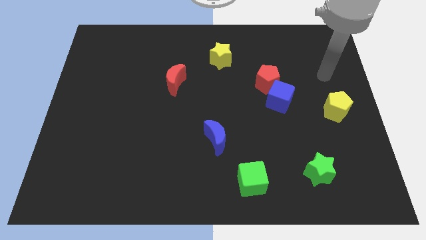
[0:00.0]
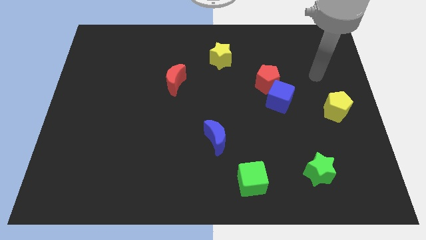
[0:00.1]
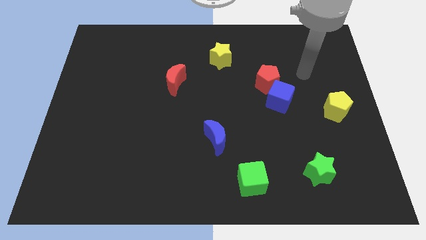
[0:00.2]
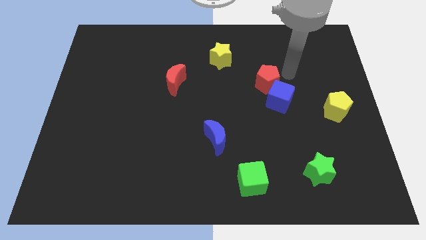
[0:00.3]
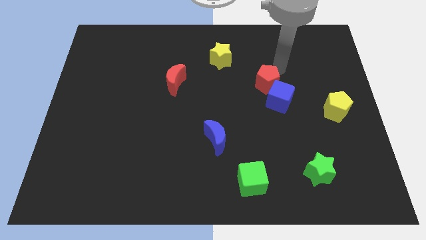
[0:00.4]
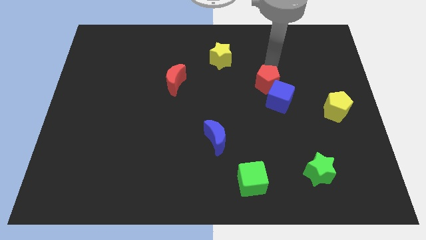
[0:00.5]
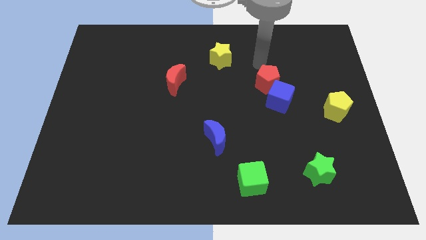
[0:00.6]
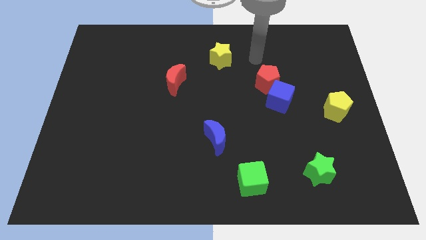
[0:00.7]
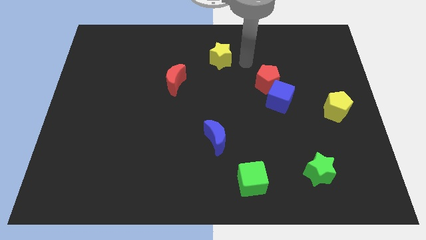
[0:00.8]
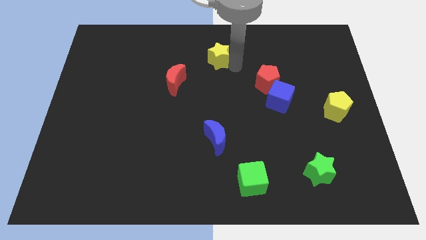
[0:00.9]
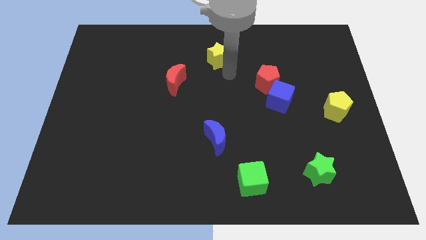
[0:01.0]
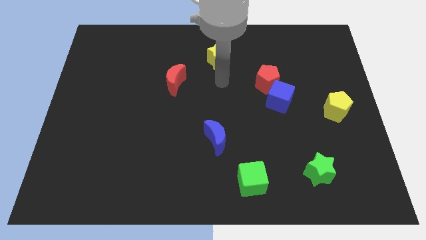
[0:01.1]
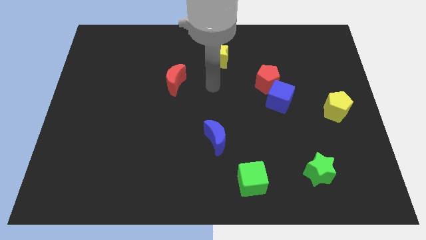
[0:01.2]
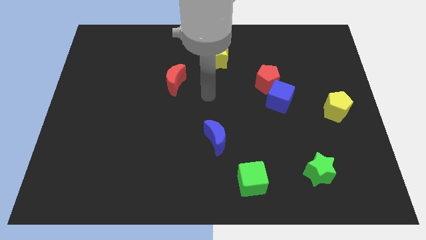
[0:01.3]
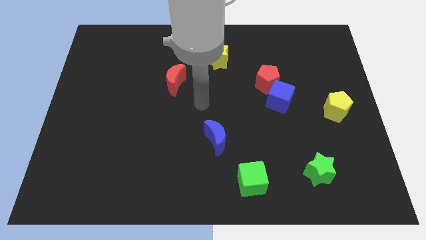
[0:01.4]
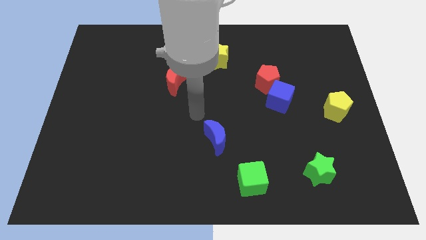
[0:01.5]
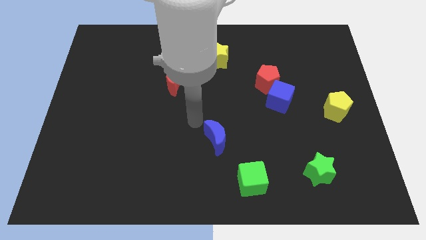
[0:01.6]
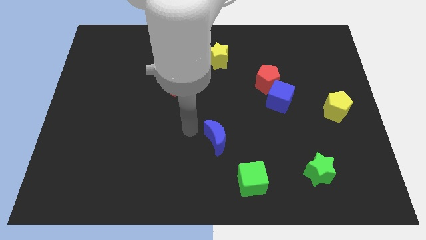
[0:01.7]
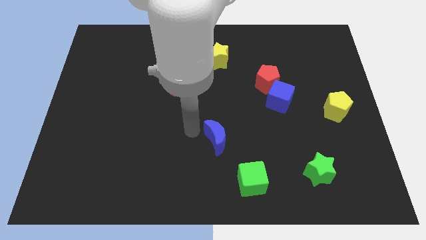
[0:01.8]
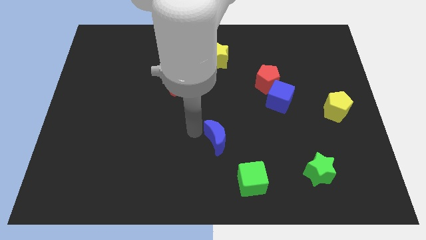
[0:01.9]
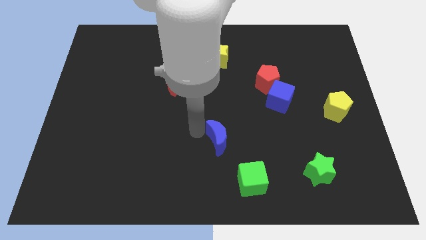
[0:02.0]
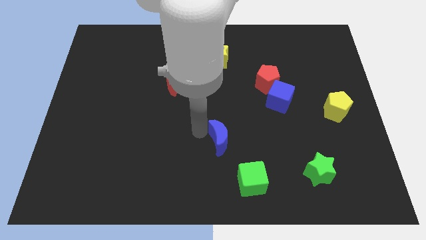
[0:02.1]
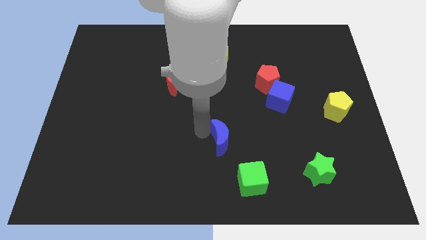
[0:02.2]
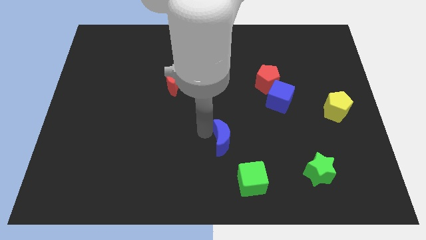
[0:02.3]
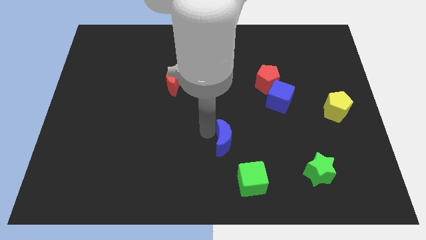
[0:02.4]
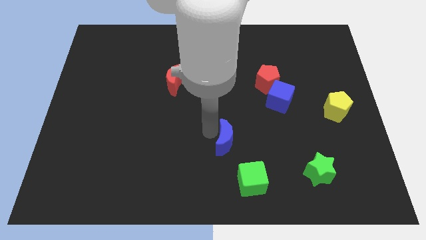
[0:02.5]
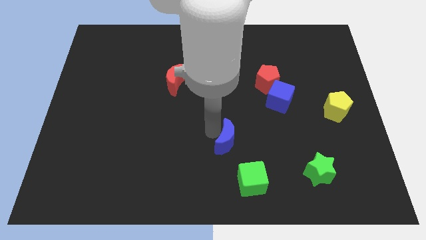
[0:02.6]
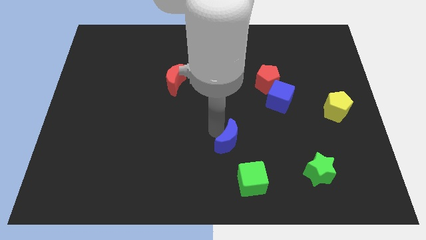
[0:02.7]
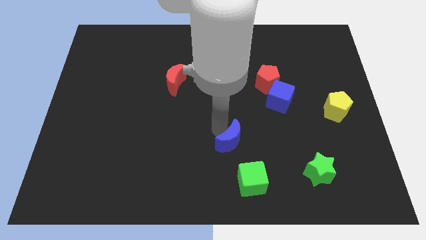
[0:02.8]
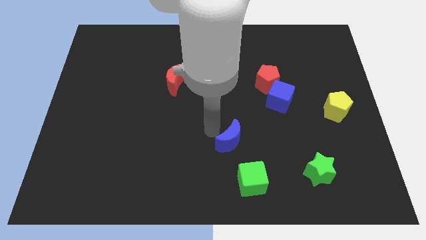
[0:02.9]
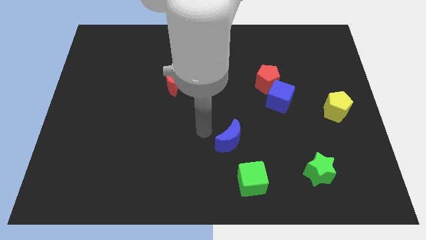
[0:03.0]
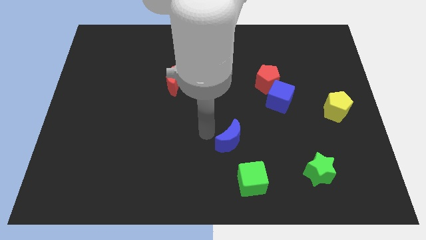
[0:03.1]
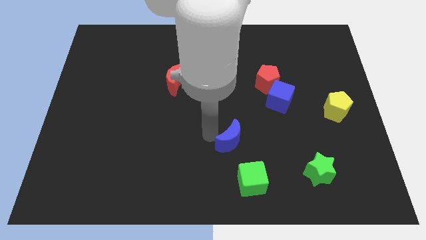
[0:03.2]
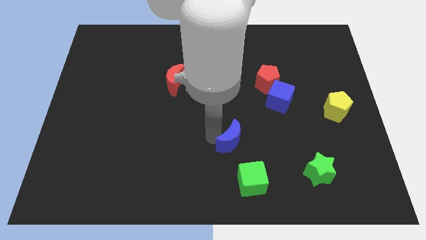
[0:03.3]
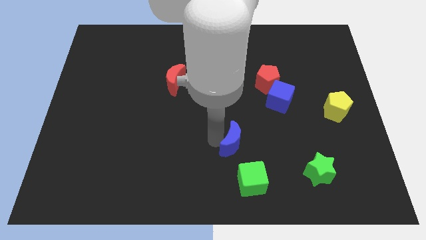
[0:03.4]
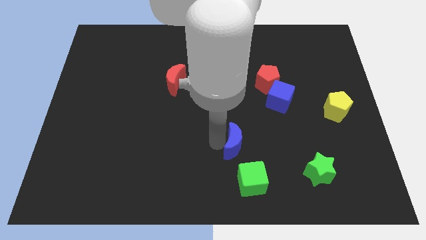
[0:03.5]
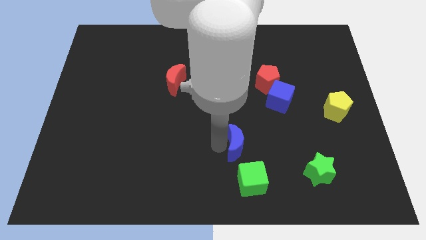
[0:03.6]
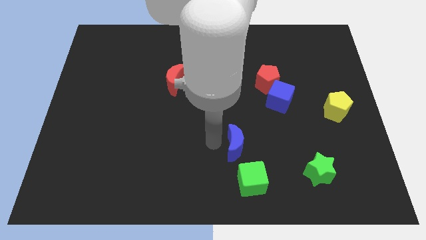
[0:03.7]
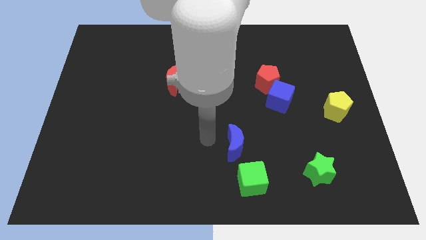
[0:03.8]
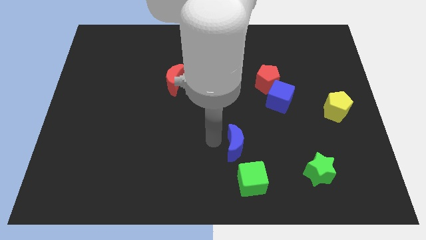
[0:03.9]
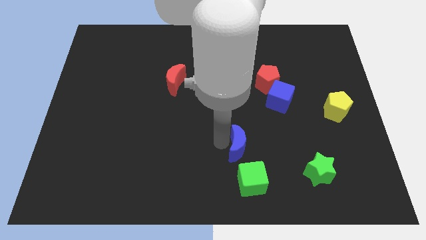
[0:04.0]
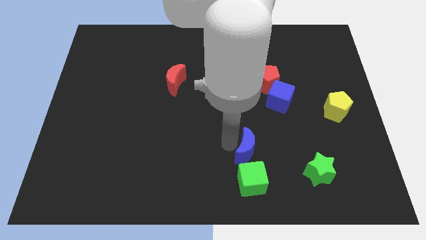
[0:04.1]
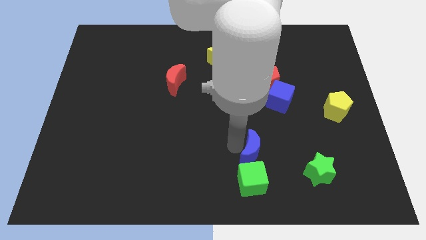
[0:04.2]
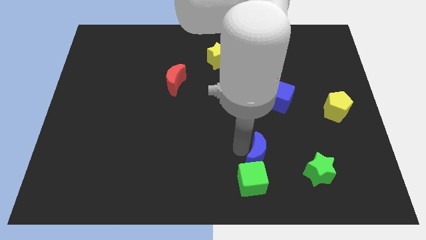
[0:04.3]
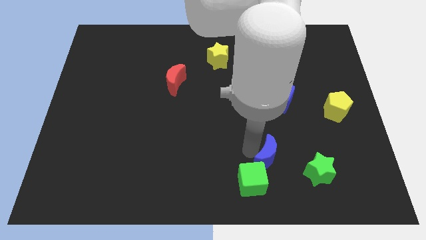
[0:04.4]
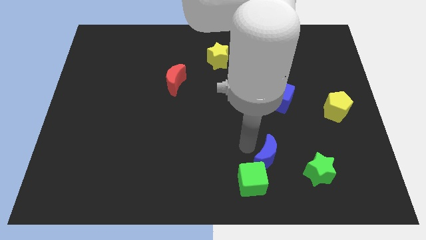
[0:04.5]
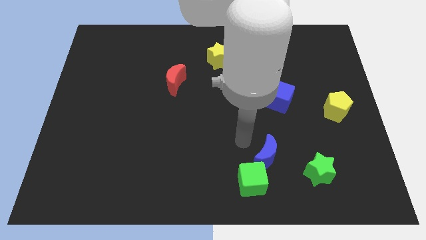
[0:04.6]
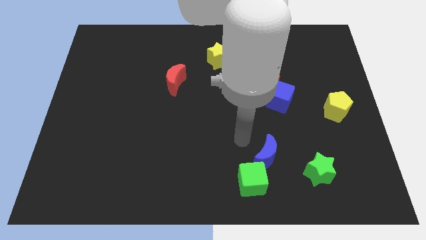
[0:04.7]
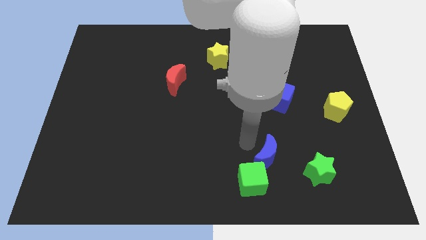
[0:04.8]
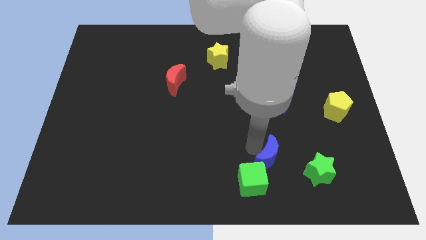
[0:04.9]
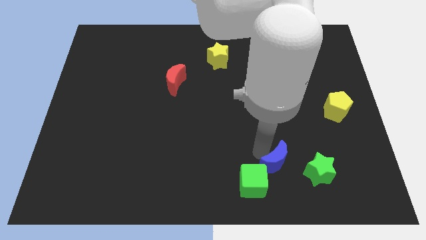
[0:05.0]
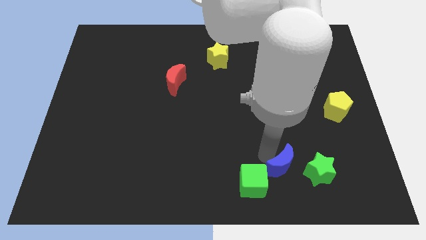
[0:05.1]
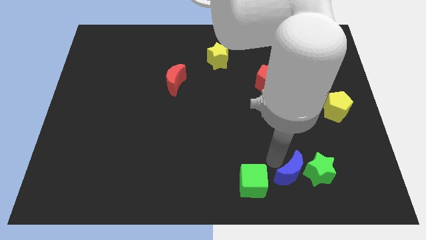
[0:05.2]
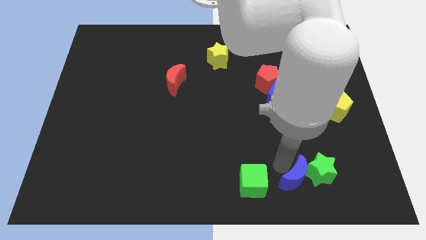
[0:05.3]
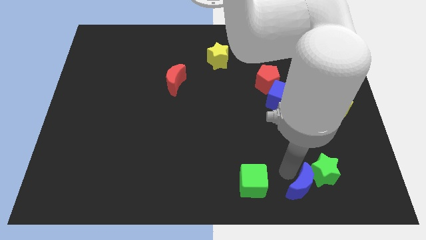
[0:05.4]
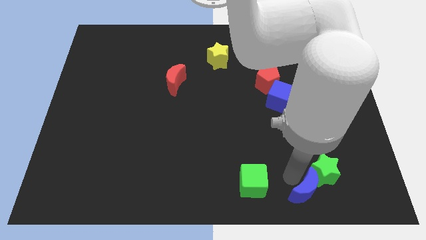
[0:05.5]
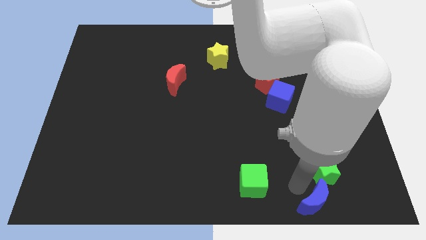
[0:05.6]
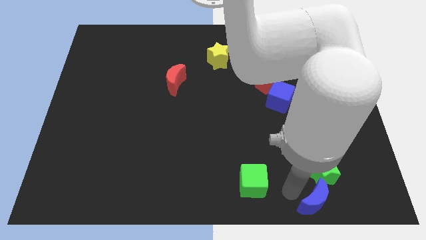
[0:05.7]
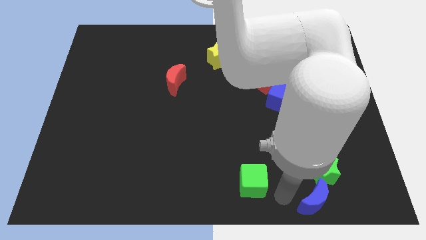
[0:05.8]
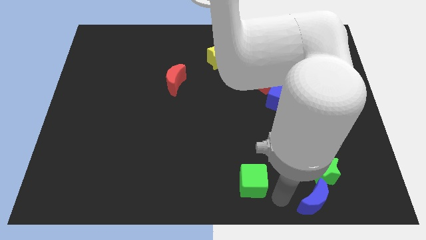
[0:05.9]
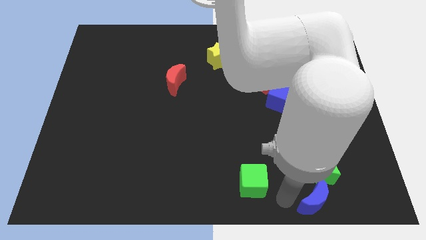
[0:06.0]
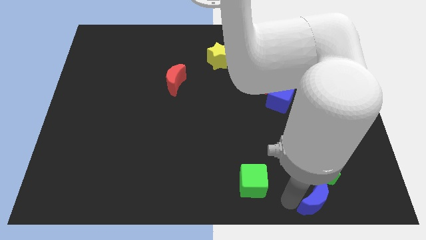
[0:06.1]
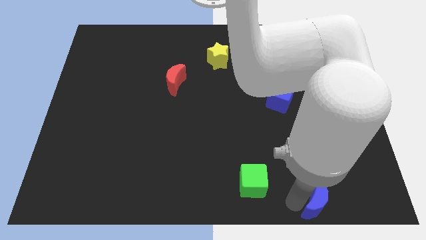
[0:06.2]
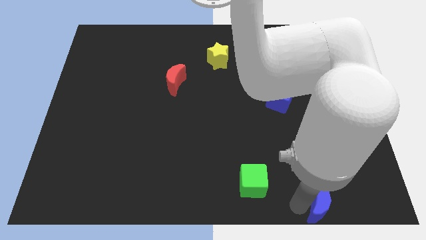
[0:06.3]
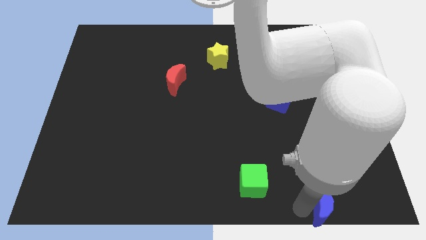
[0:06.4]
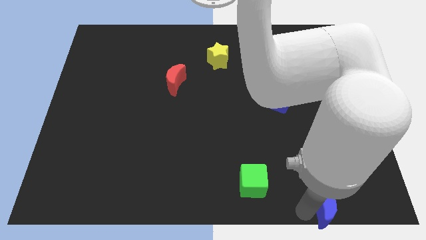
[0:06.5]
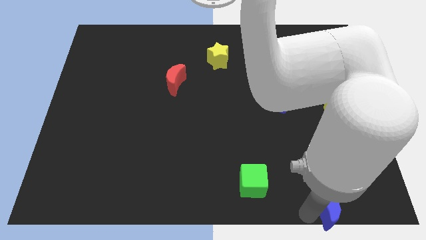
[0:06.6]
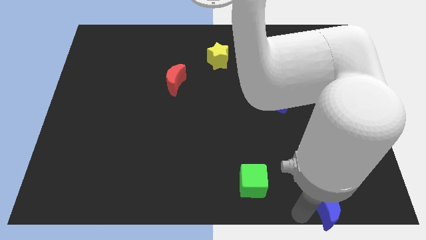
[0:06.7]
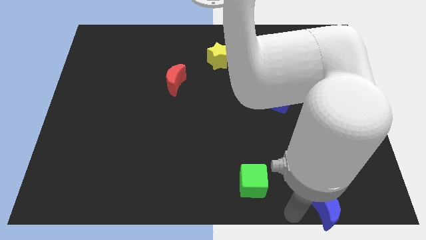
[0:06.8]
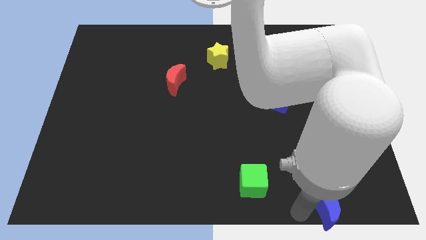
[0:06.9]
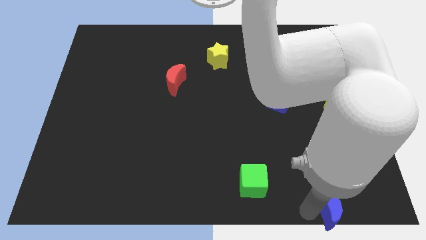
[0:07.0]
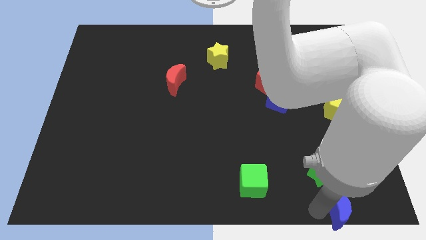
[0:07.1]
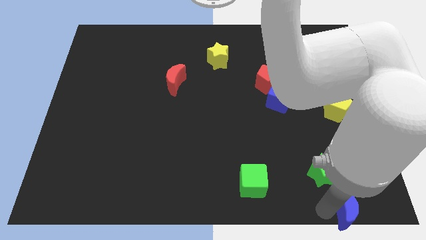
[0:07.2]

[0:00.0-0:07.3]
slide the blue moon to the bottom right of the board
